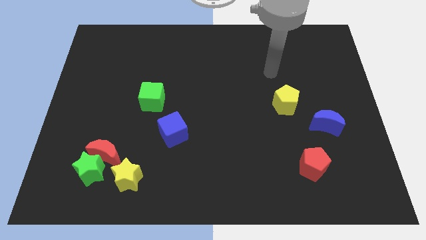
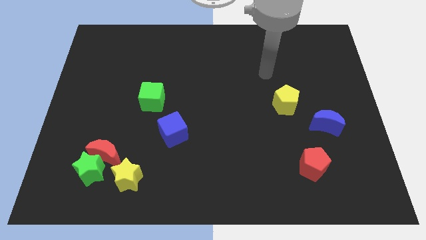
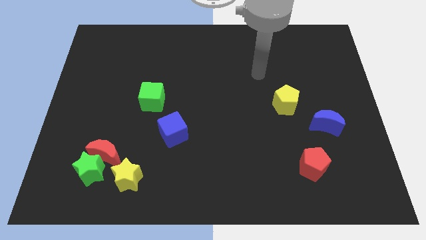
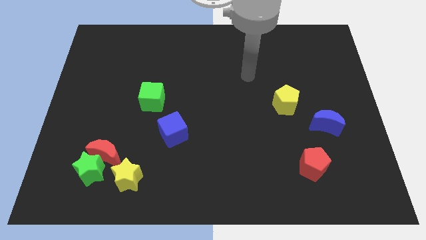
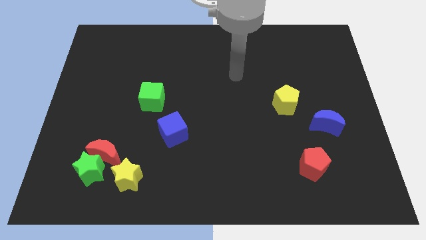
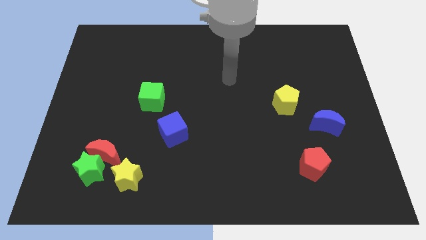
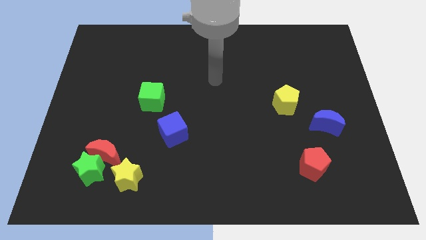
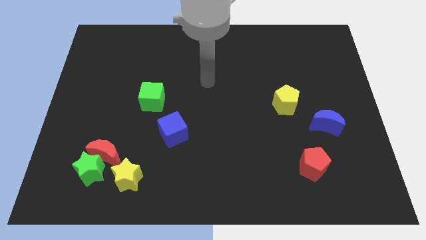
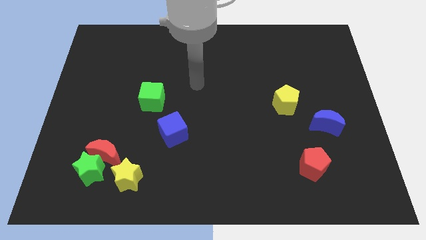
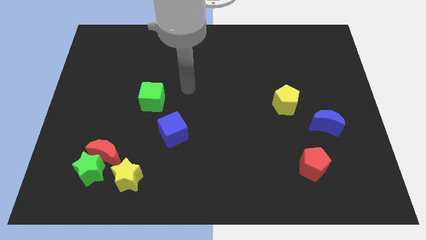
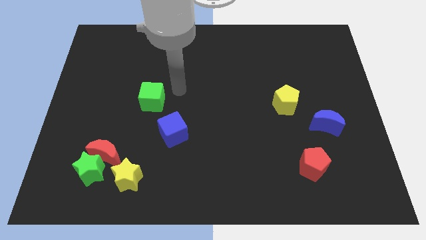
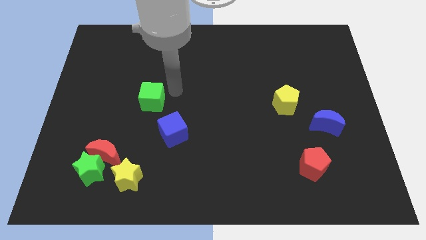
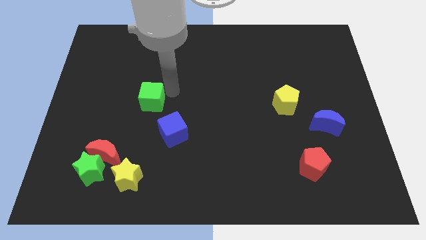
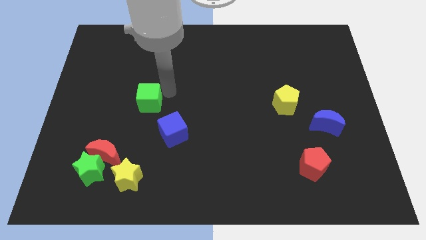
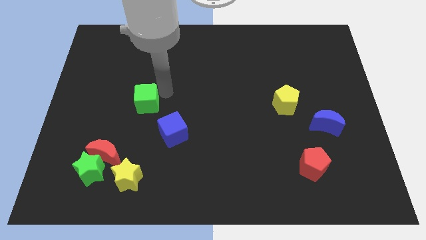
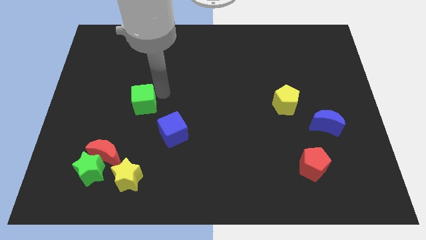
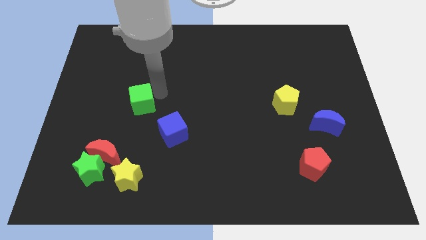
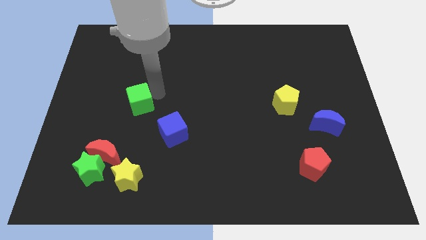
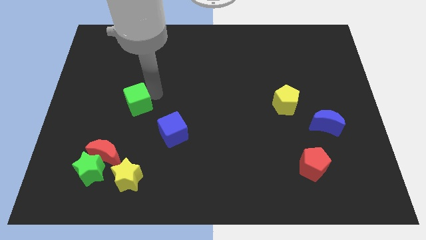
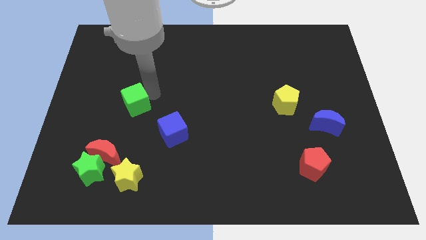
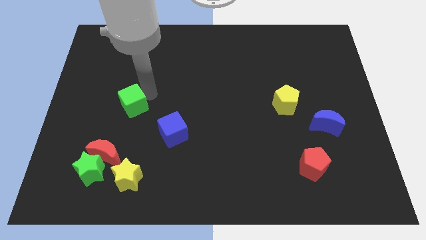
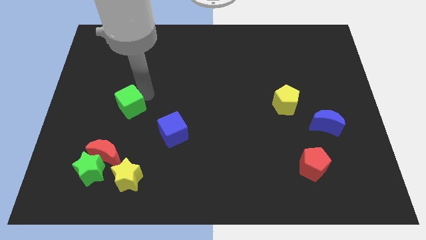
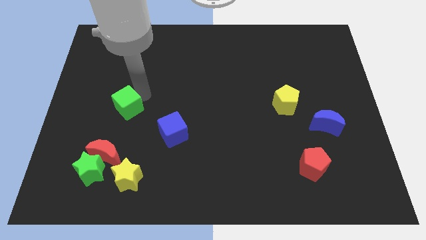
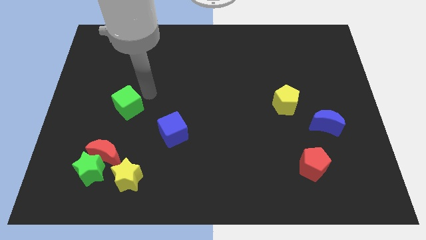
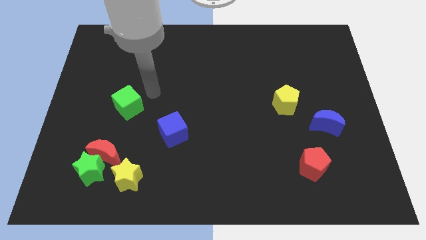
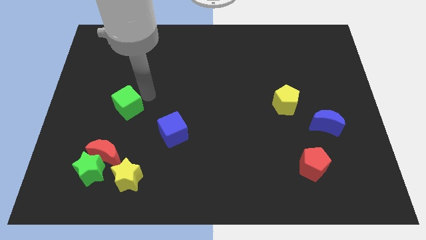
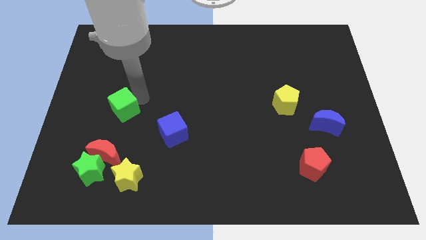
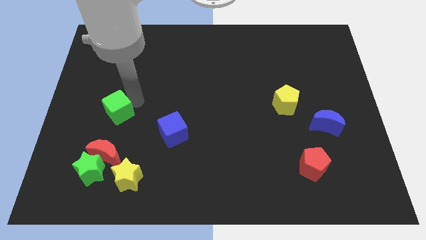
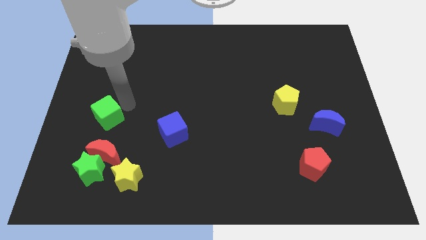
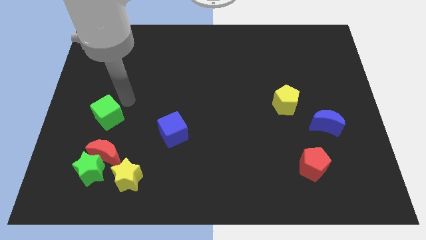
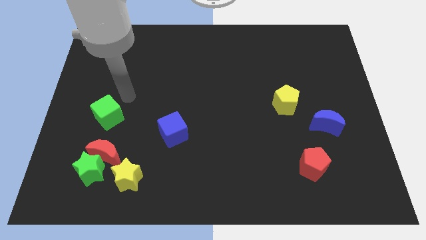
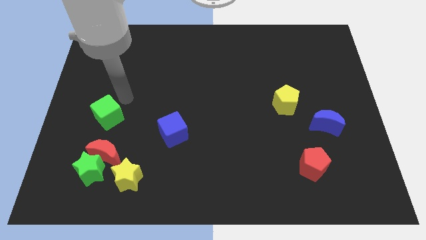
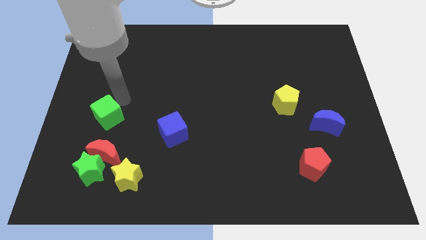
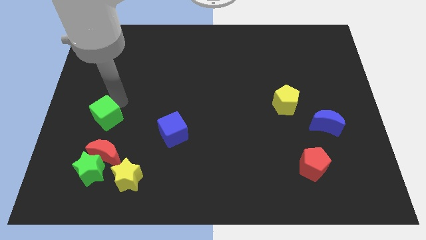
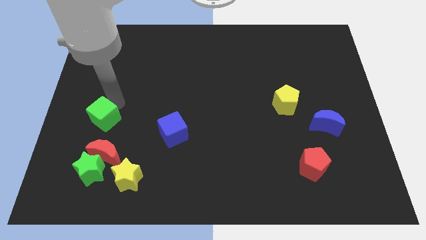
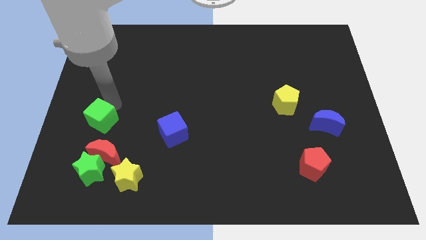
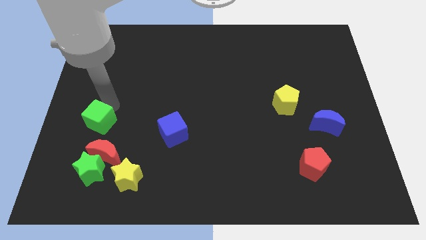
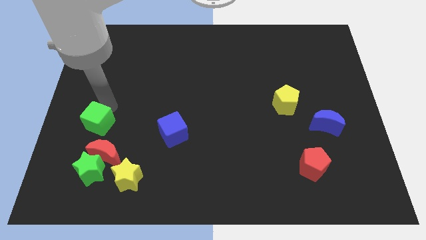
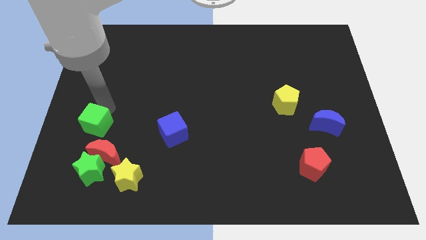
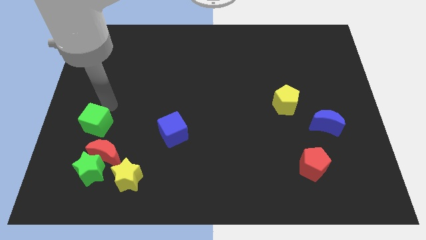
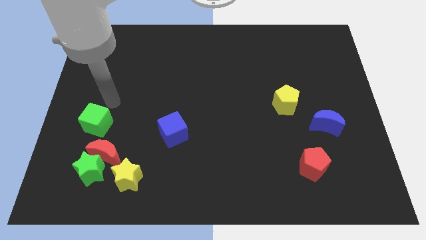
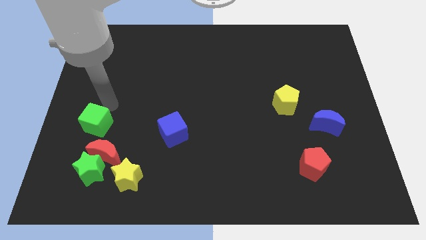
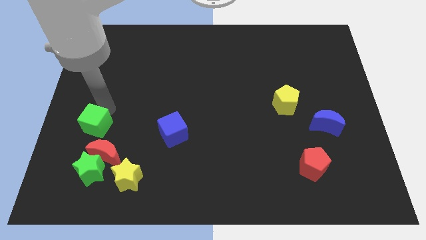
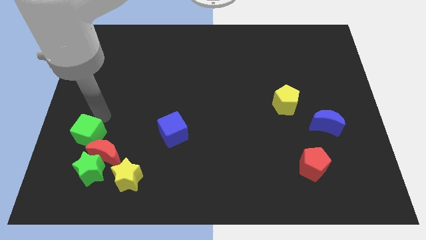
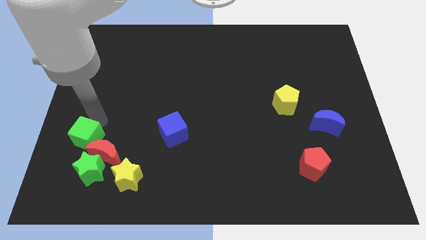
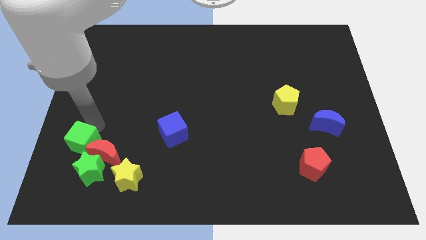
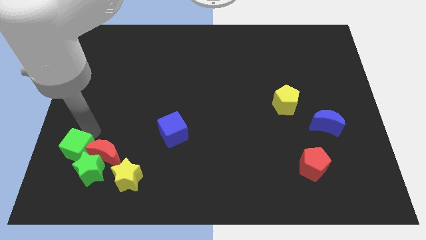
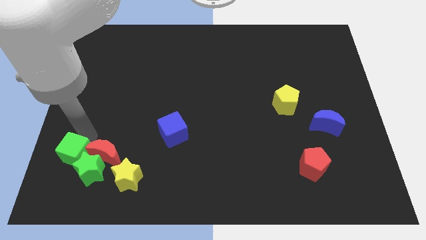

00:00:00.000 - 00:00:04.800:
push the green cube diagonally down and to the left of the red moon

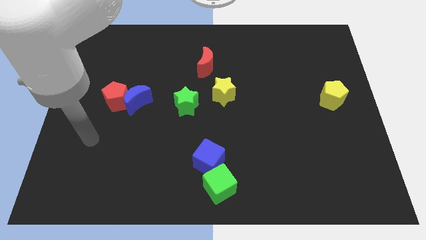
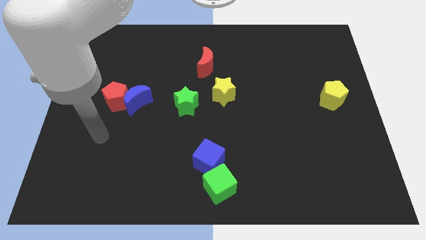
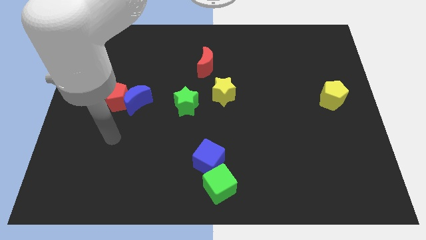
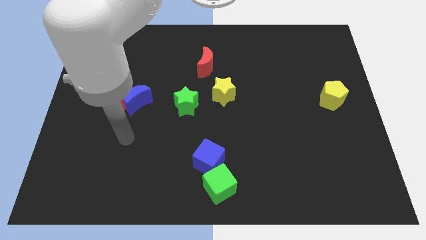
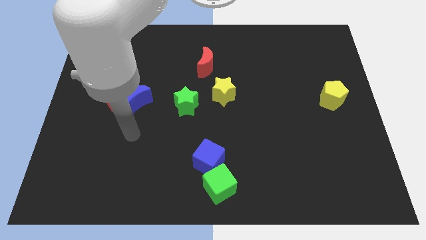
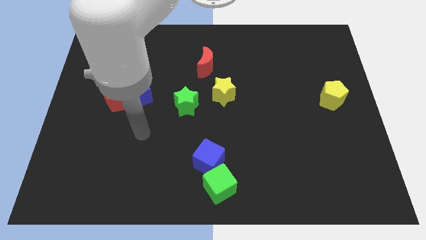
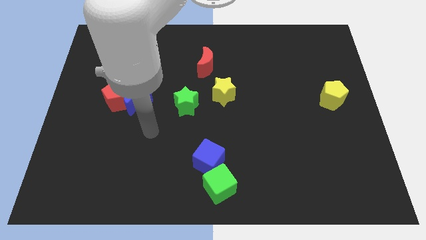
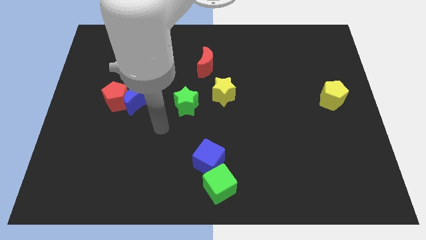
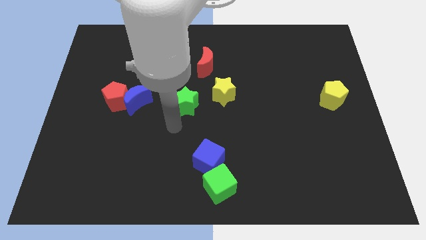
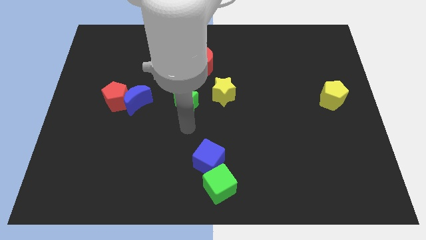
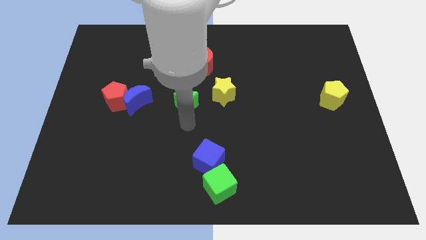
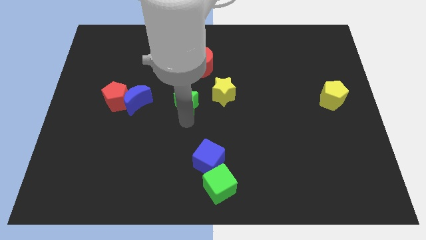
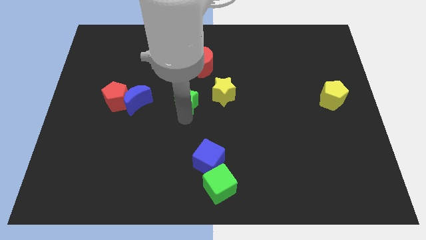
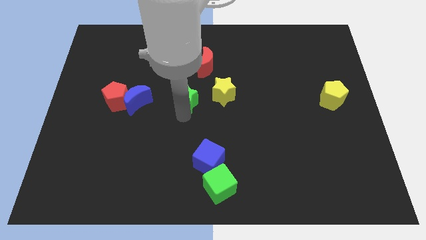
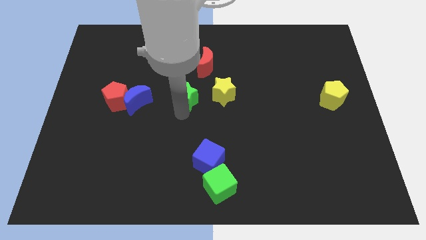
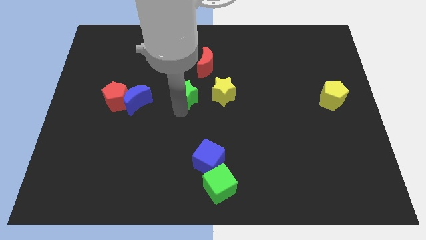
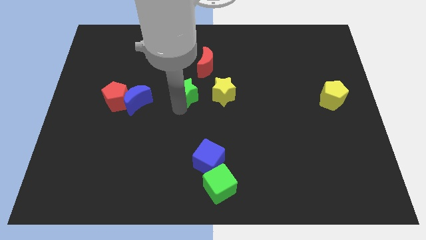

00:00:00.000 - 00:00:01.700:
slide the green star to the bottom left side of the red moon

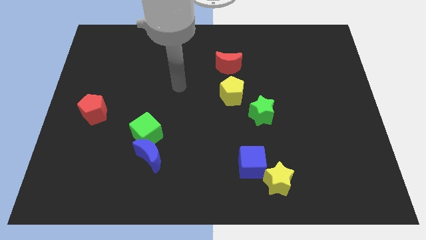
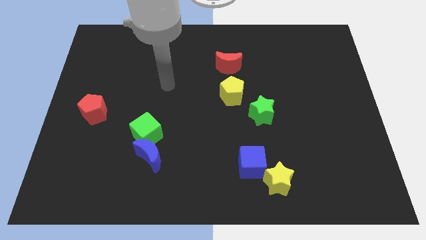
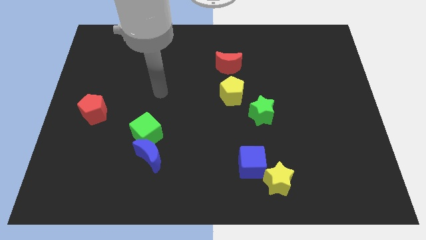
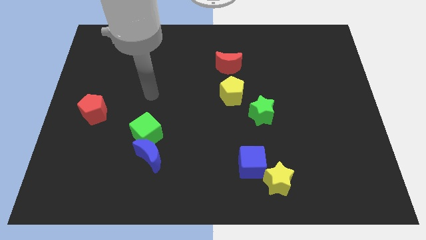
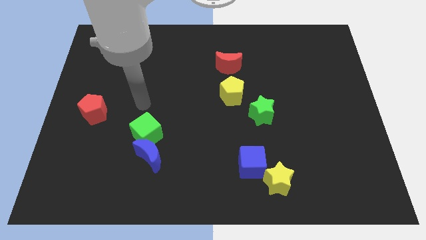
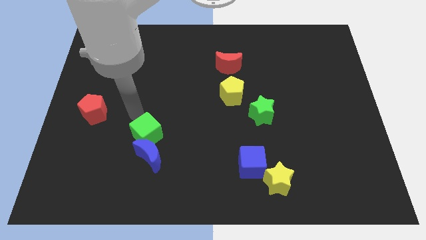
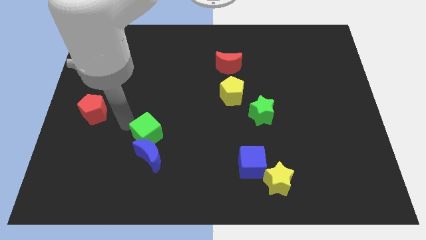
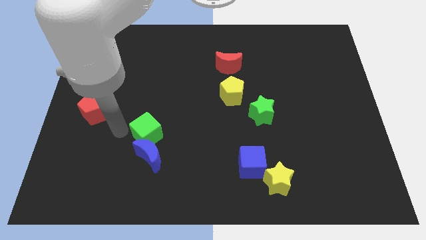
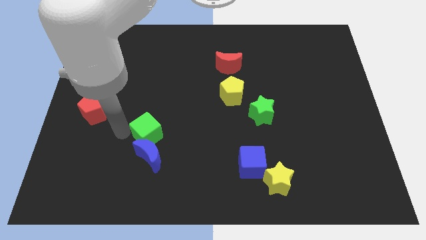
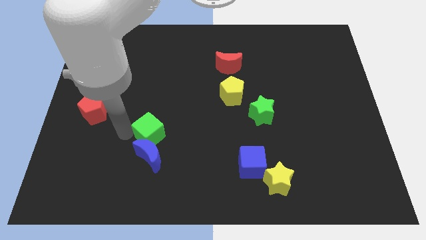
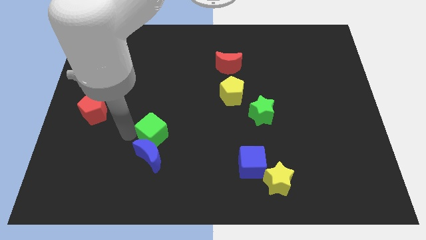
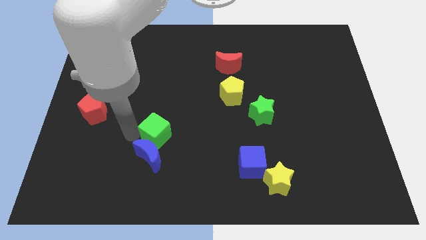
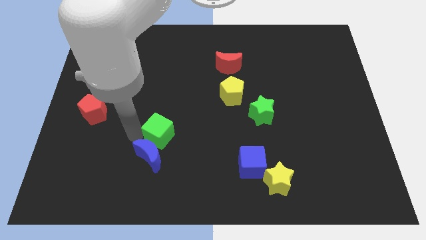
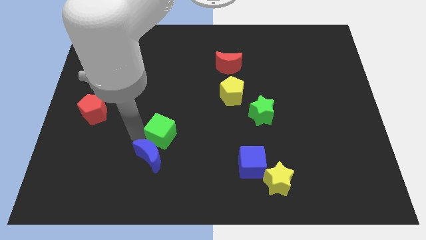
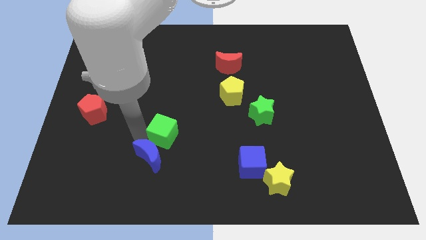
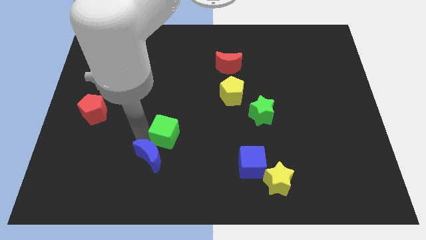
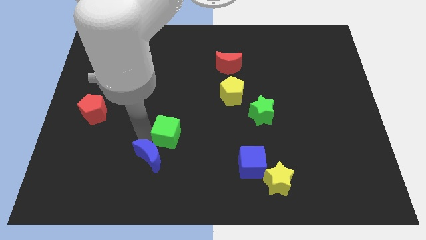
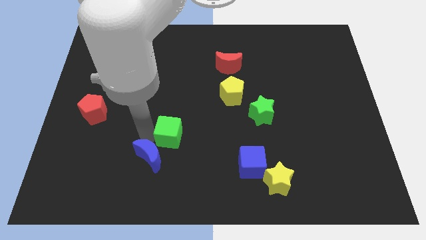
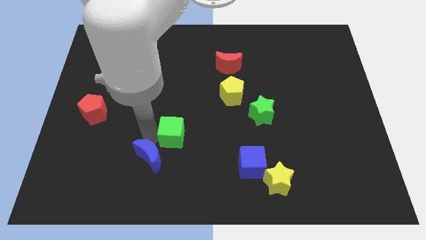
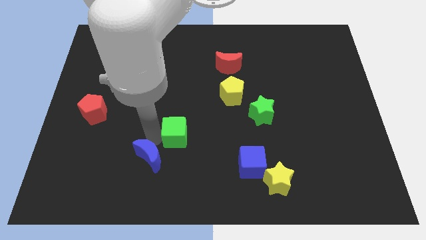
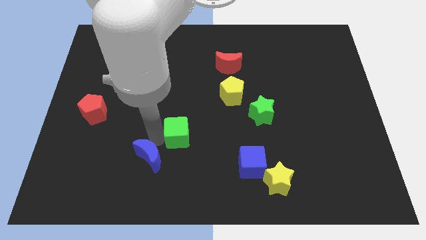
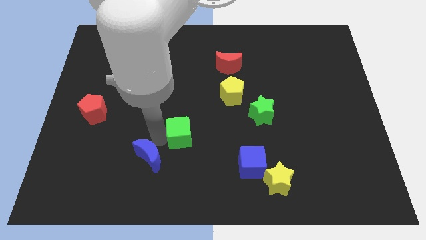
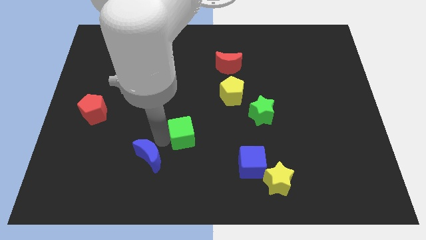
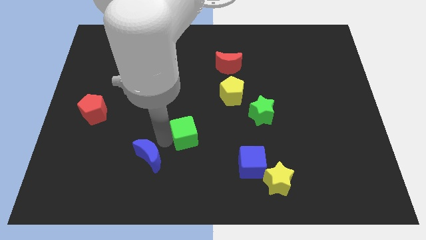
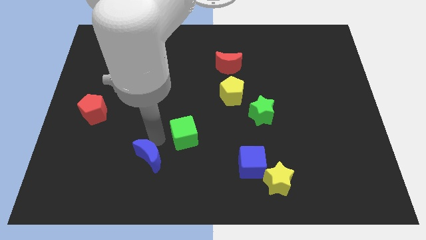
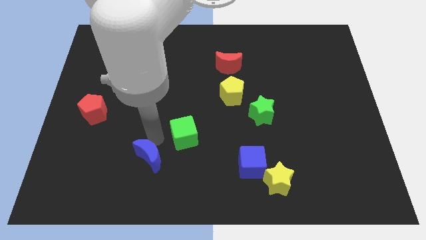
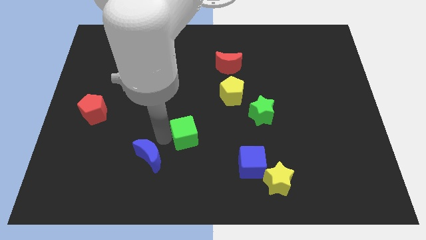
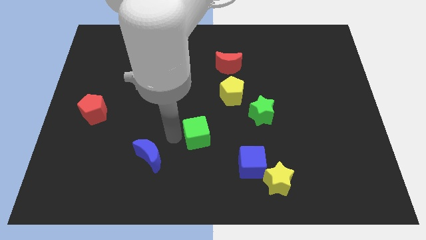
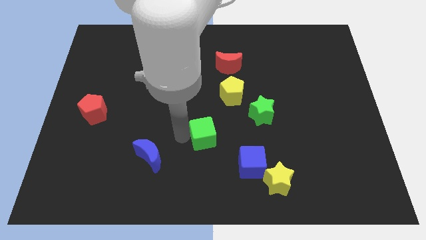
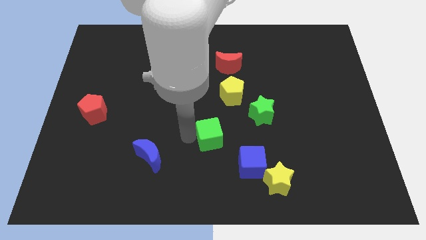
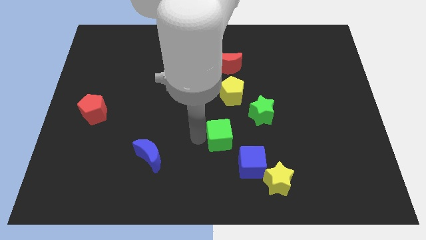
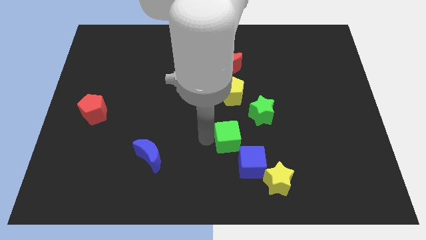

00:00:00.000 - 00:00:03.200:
push the green cube above the blue cube
